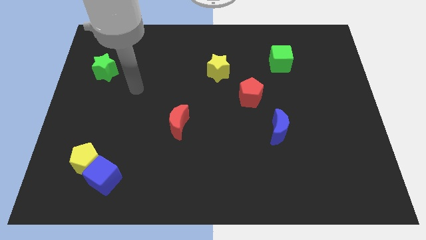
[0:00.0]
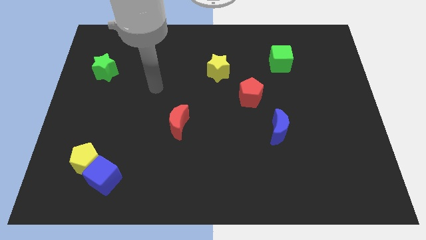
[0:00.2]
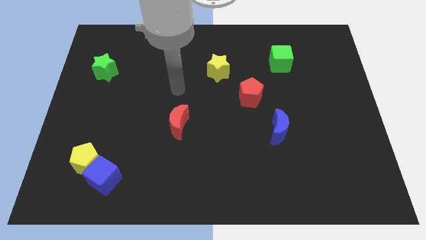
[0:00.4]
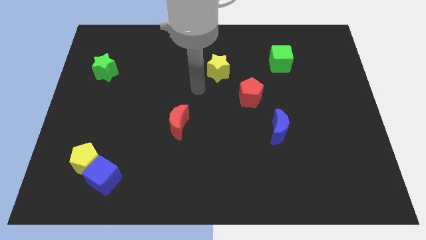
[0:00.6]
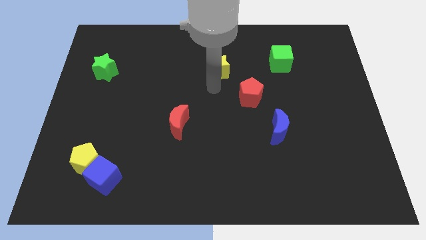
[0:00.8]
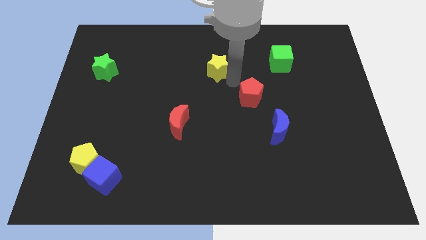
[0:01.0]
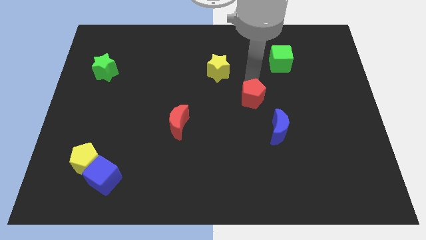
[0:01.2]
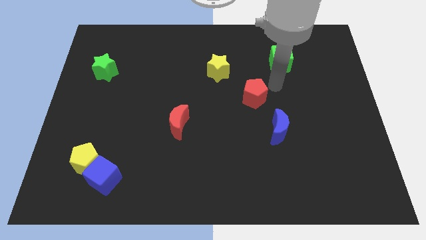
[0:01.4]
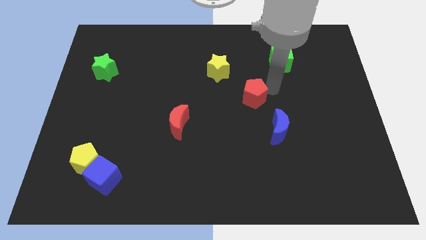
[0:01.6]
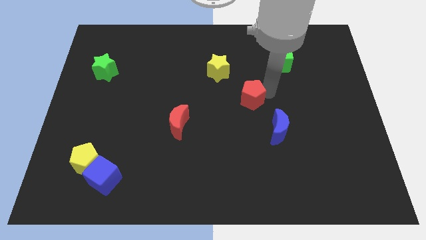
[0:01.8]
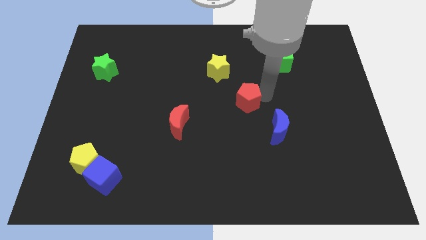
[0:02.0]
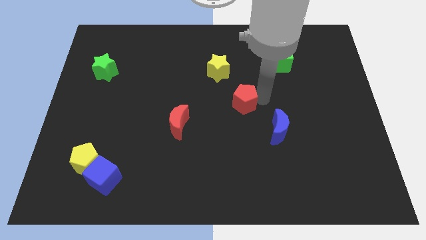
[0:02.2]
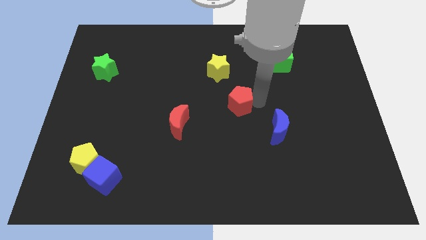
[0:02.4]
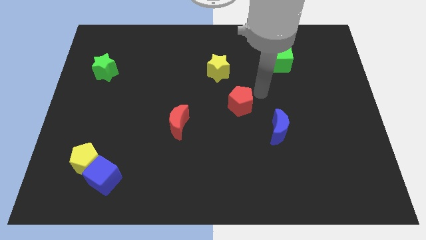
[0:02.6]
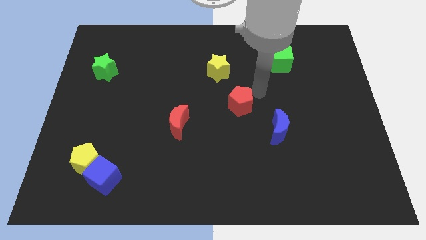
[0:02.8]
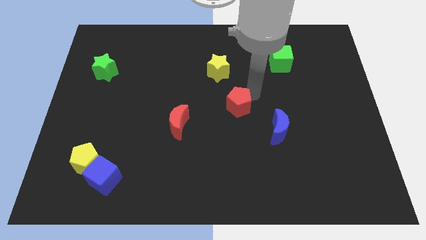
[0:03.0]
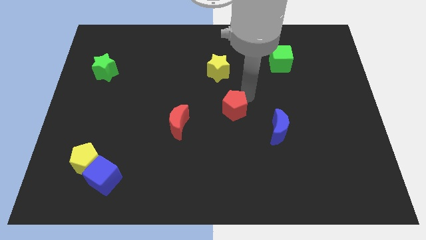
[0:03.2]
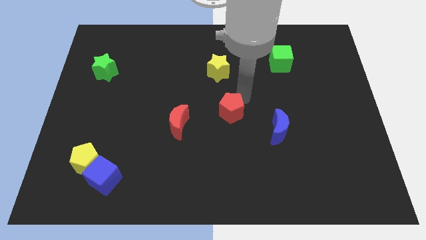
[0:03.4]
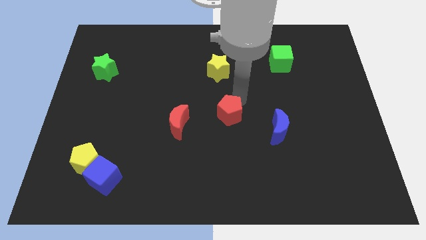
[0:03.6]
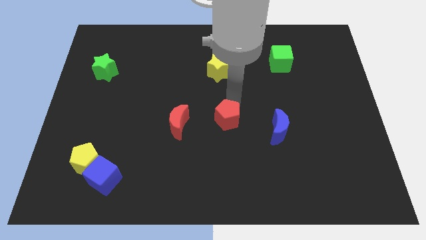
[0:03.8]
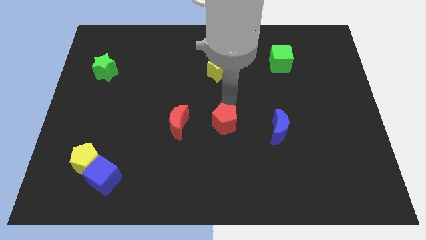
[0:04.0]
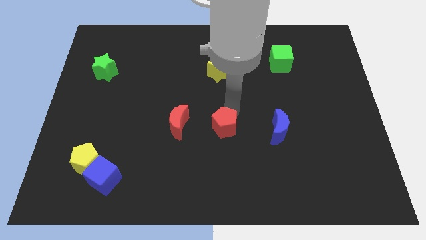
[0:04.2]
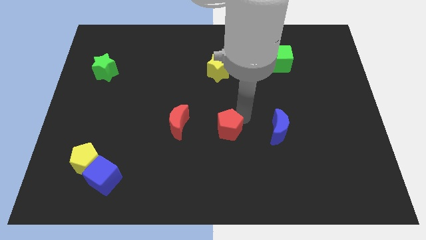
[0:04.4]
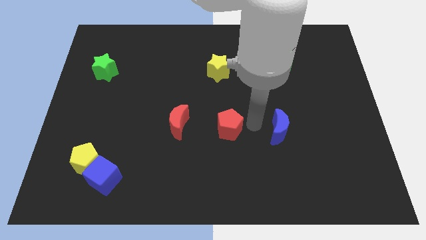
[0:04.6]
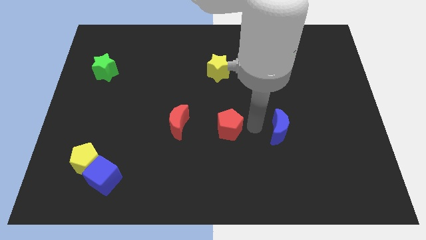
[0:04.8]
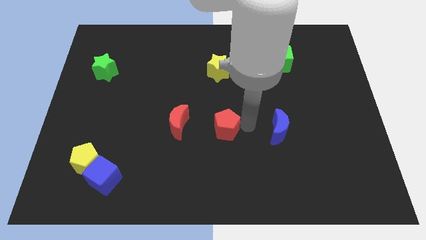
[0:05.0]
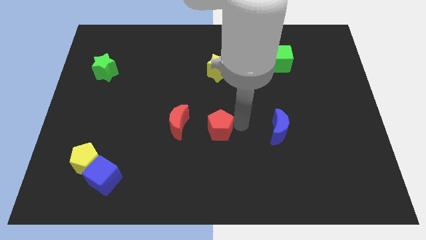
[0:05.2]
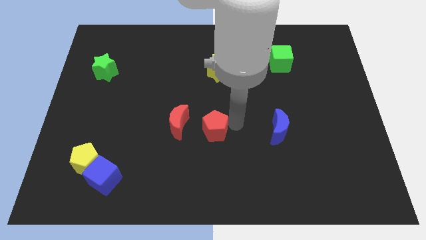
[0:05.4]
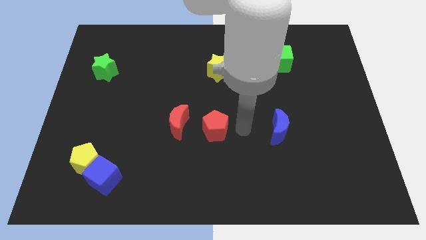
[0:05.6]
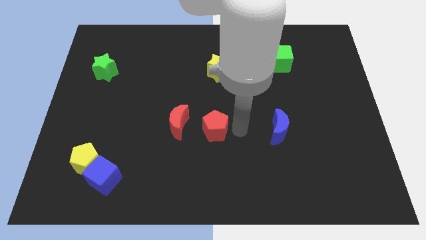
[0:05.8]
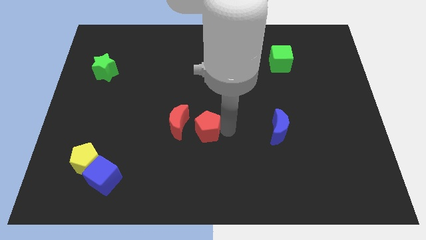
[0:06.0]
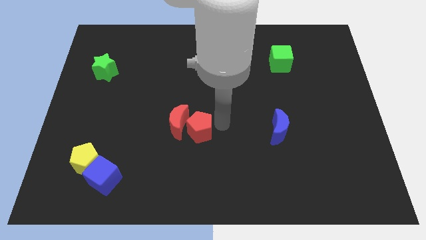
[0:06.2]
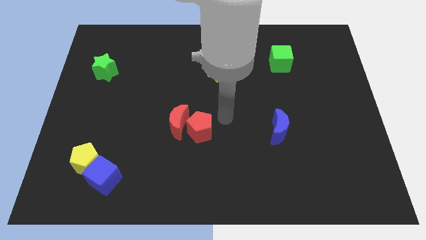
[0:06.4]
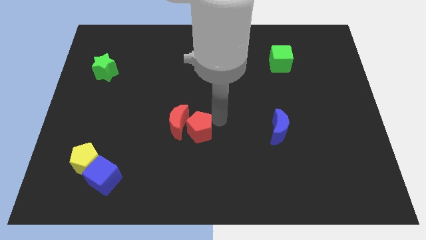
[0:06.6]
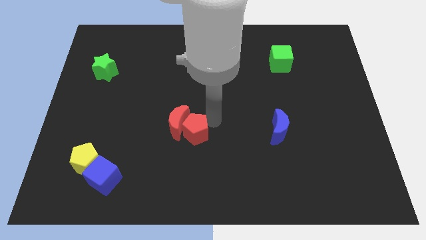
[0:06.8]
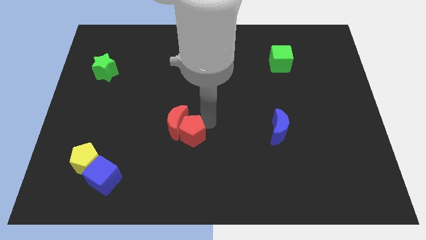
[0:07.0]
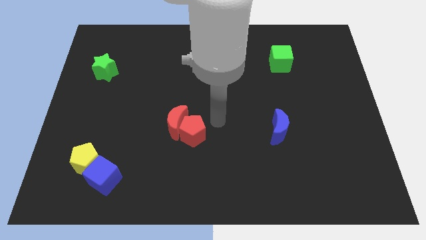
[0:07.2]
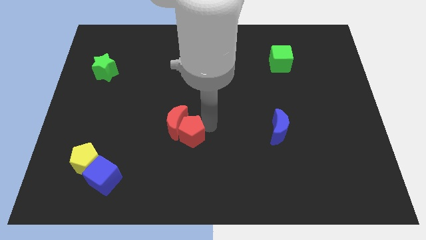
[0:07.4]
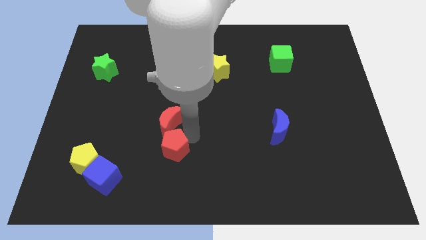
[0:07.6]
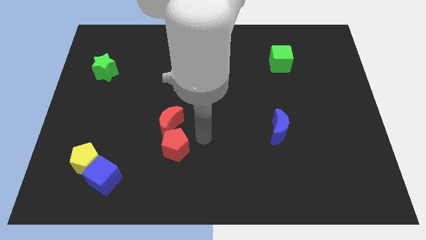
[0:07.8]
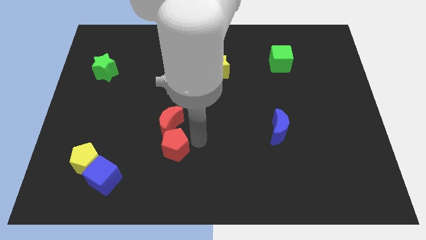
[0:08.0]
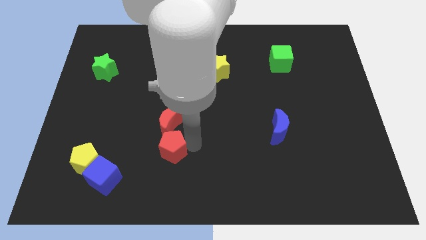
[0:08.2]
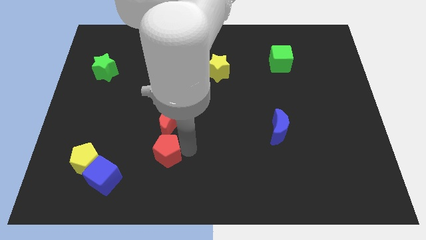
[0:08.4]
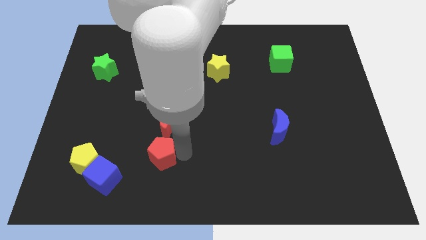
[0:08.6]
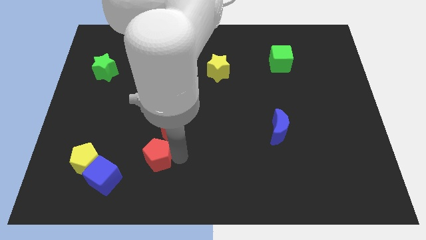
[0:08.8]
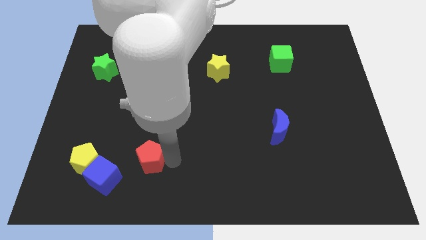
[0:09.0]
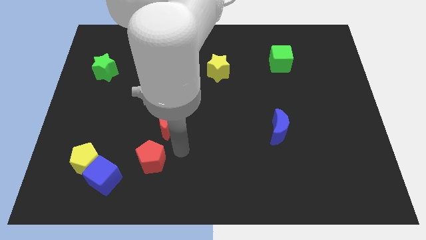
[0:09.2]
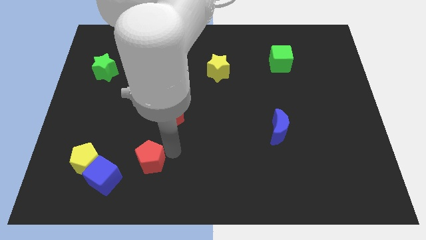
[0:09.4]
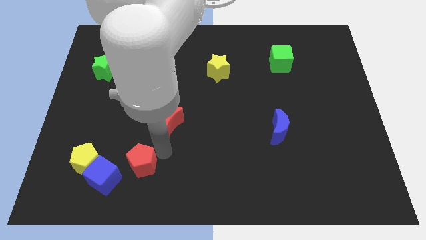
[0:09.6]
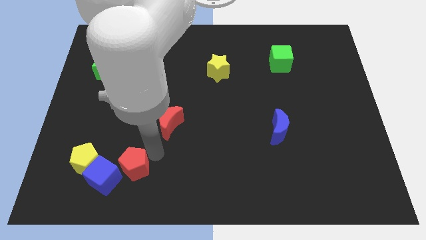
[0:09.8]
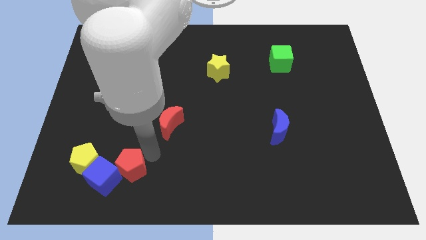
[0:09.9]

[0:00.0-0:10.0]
move the red pentagon to the blue cube

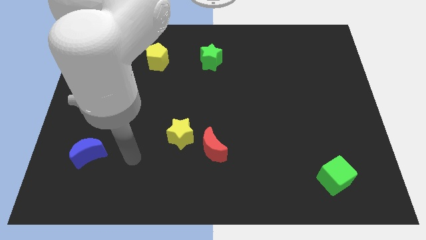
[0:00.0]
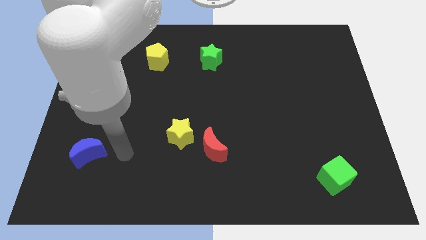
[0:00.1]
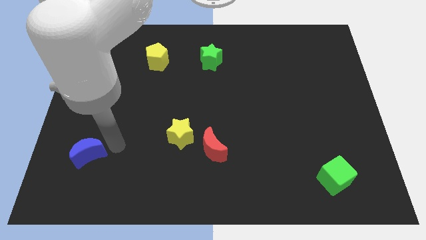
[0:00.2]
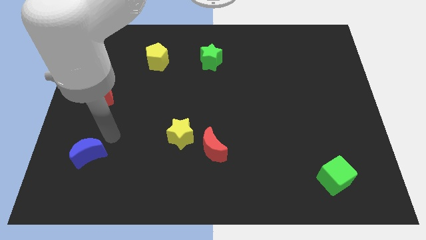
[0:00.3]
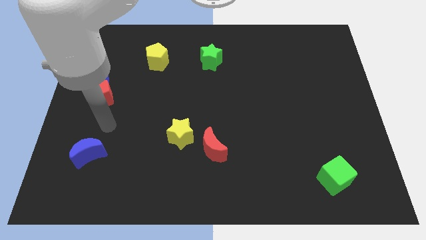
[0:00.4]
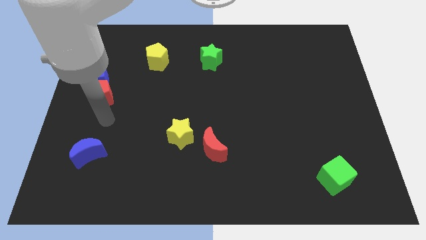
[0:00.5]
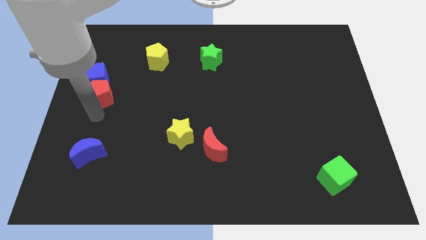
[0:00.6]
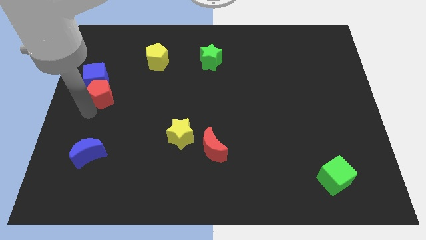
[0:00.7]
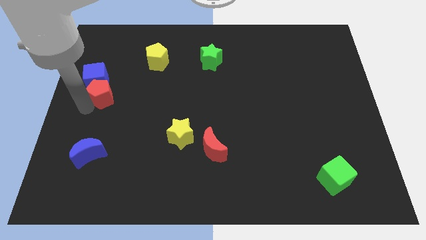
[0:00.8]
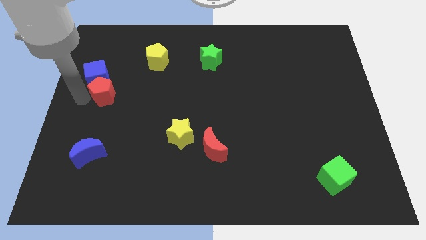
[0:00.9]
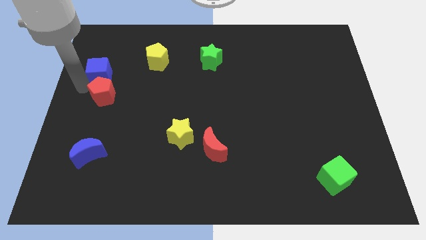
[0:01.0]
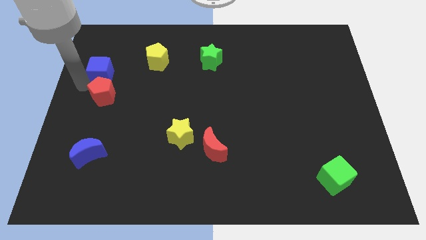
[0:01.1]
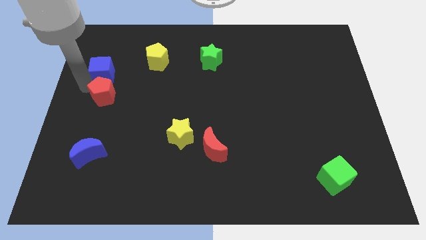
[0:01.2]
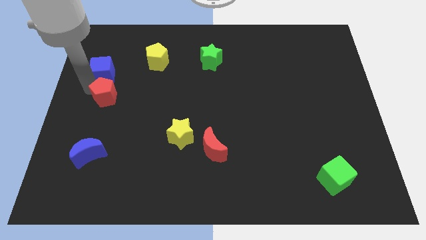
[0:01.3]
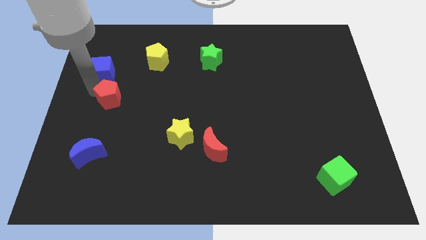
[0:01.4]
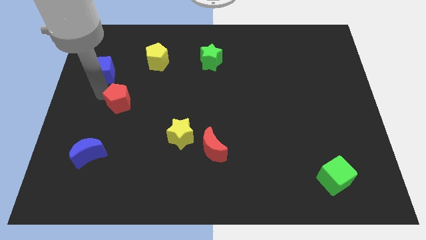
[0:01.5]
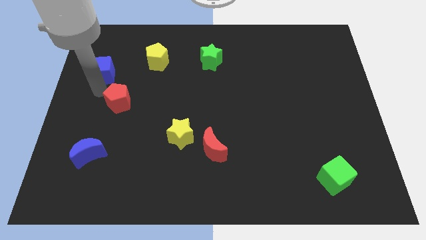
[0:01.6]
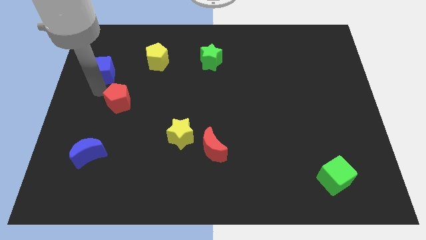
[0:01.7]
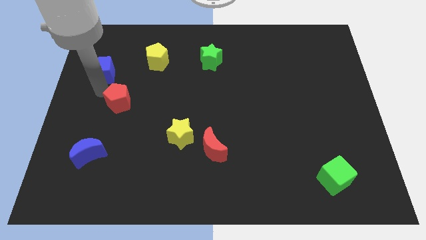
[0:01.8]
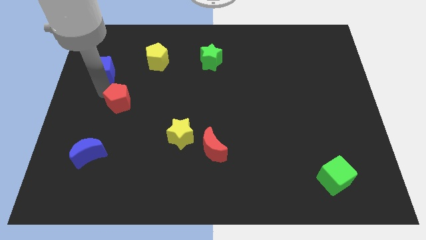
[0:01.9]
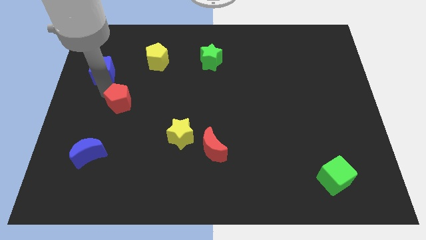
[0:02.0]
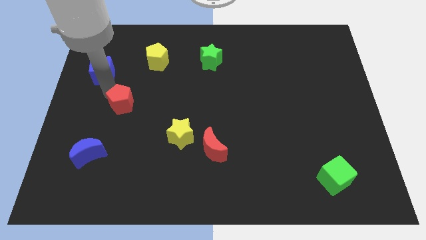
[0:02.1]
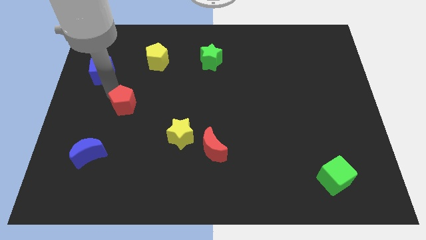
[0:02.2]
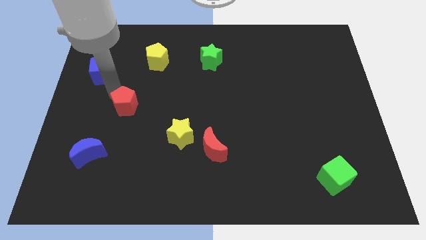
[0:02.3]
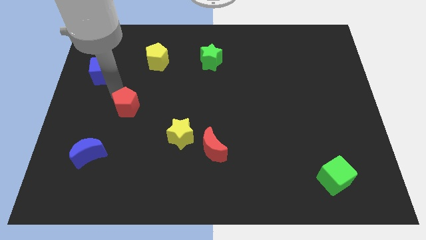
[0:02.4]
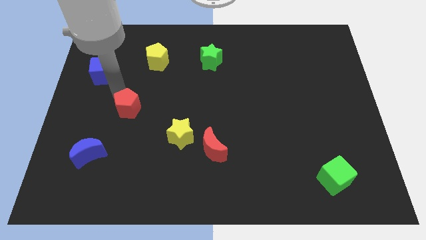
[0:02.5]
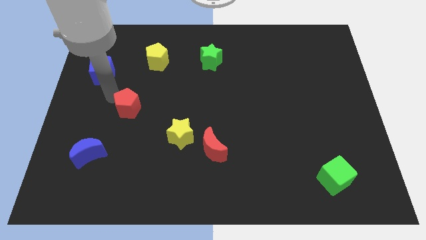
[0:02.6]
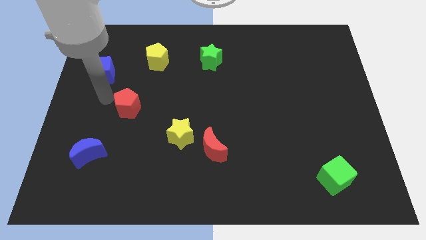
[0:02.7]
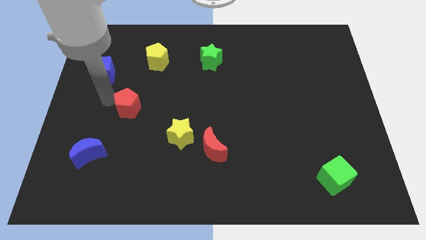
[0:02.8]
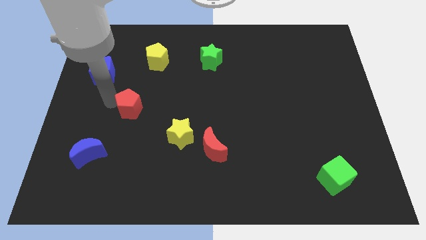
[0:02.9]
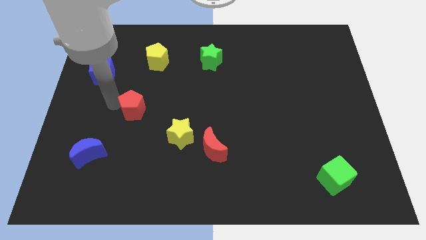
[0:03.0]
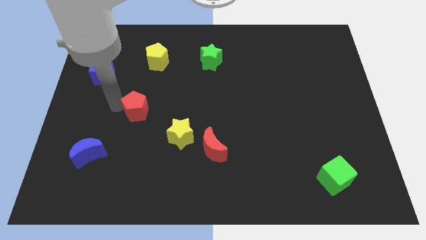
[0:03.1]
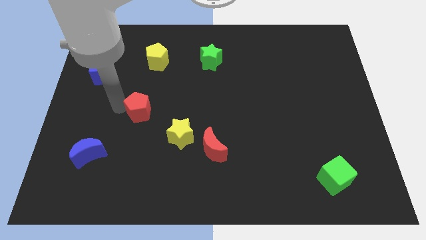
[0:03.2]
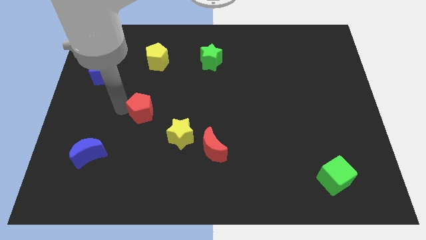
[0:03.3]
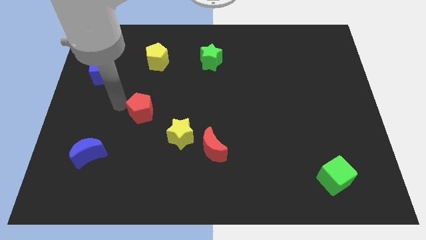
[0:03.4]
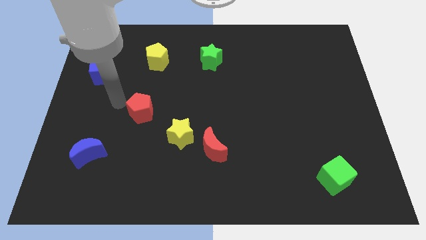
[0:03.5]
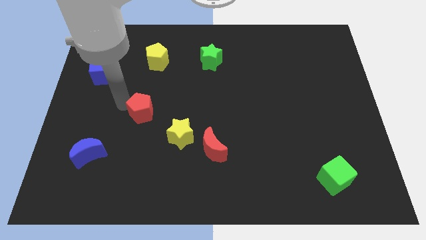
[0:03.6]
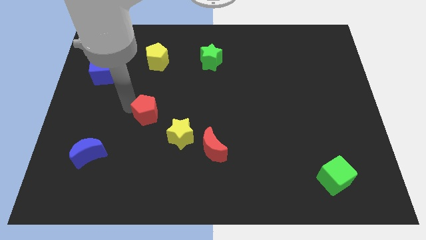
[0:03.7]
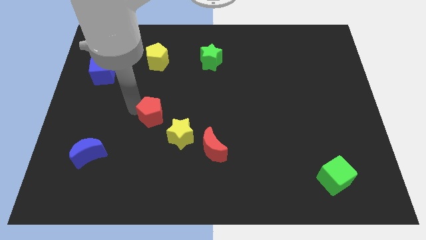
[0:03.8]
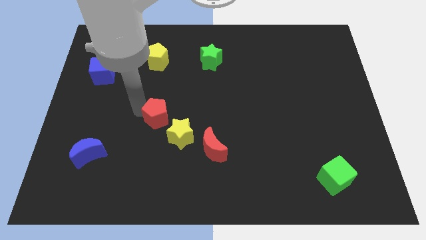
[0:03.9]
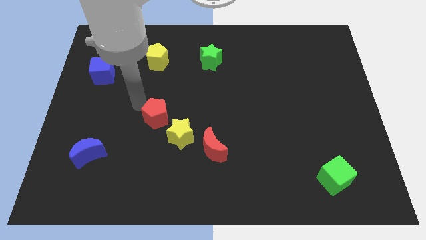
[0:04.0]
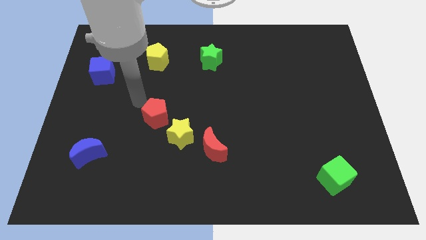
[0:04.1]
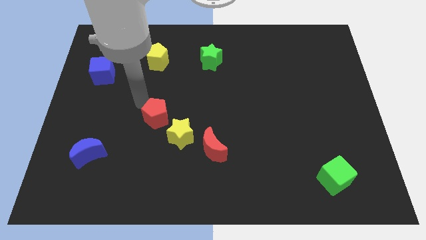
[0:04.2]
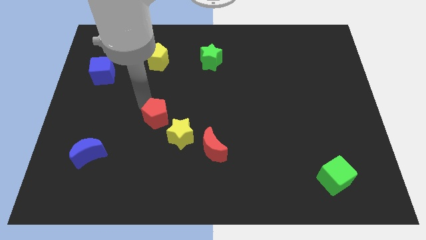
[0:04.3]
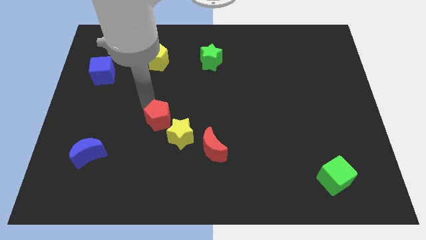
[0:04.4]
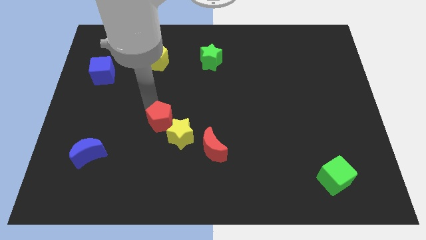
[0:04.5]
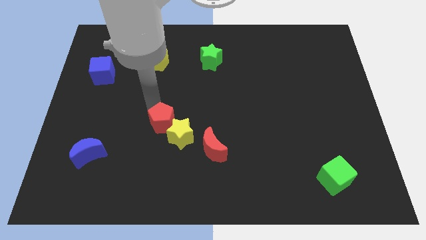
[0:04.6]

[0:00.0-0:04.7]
slide the red pentagon close to the yellow star
